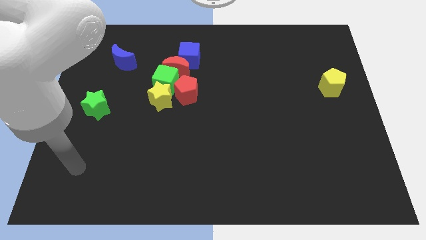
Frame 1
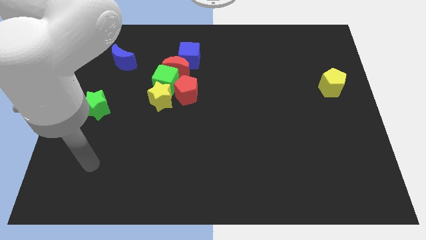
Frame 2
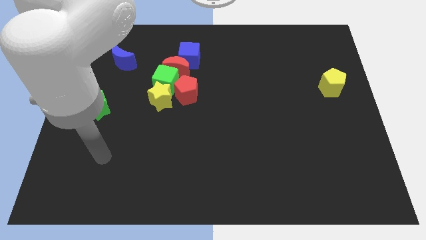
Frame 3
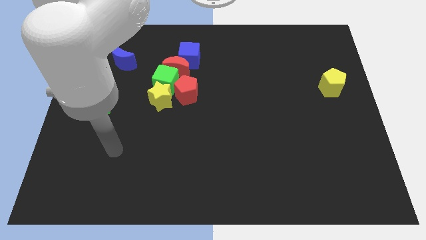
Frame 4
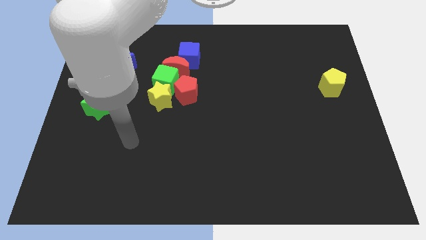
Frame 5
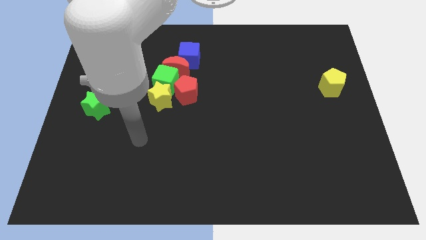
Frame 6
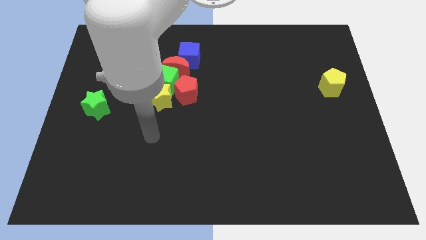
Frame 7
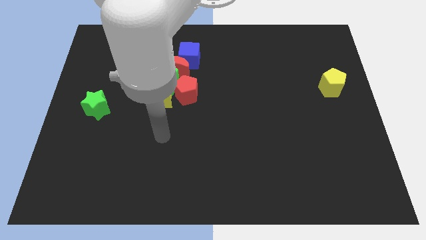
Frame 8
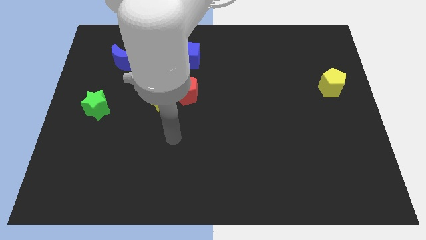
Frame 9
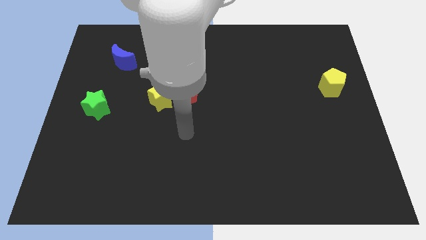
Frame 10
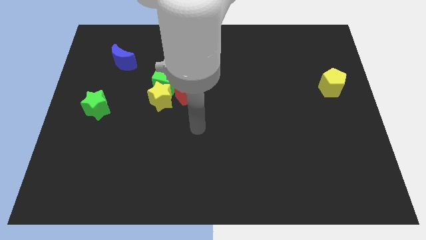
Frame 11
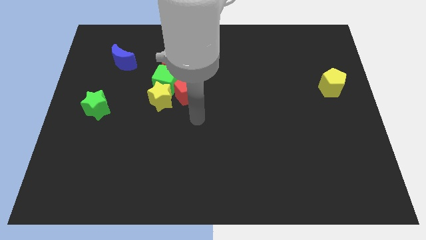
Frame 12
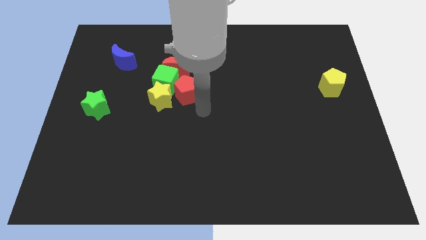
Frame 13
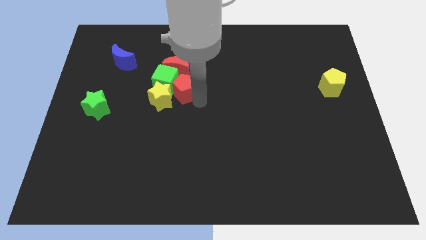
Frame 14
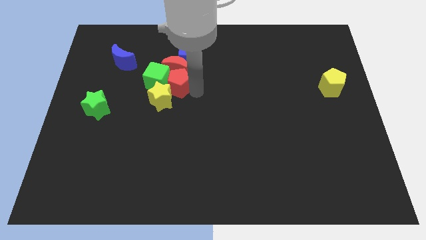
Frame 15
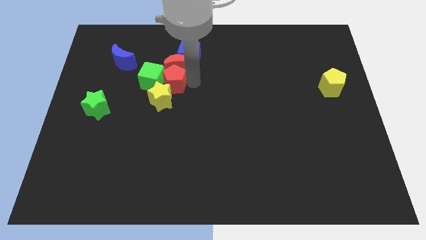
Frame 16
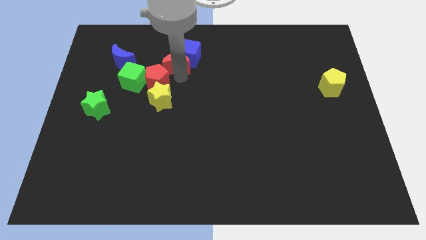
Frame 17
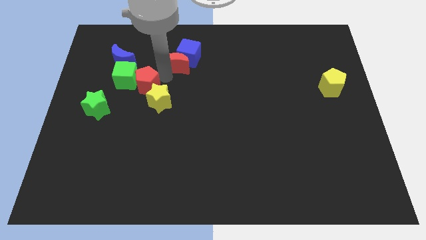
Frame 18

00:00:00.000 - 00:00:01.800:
separate the green cube from the clump

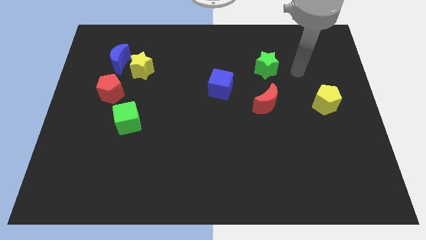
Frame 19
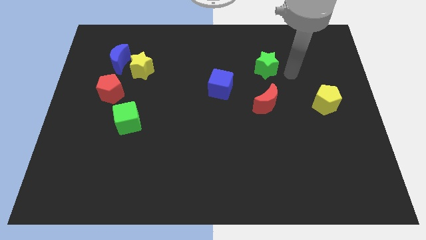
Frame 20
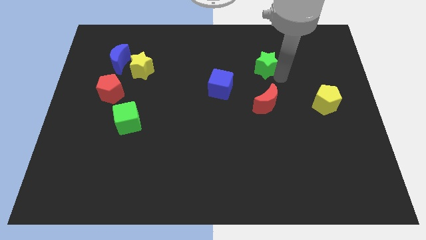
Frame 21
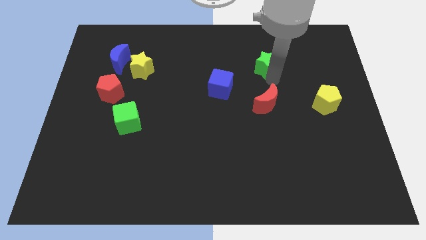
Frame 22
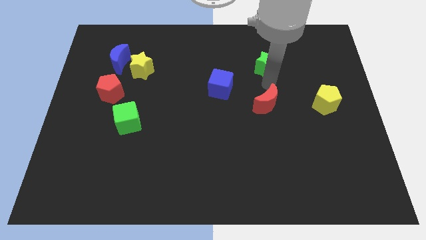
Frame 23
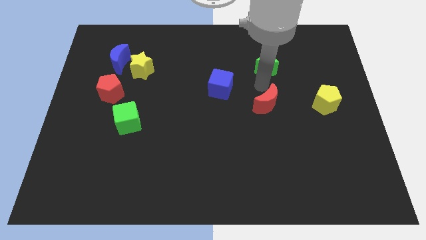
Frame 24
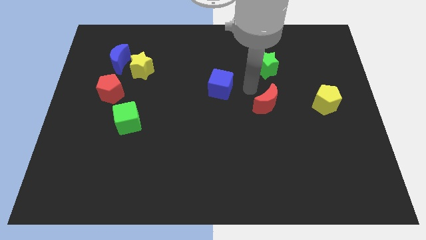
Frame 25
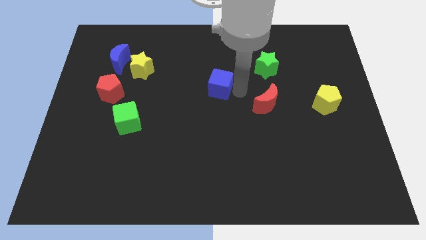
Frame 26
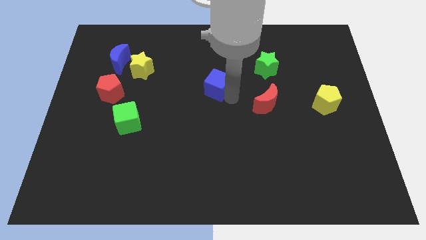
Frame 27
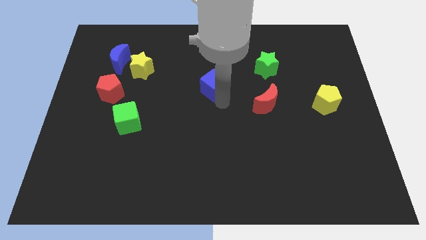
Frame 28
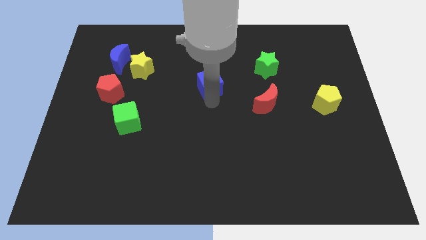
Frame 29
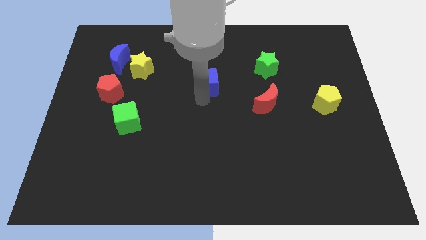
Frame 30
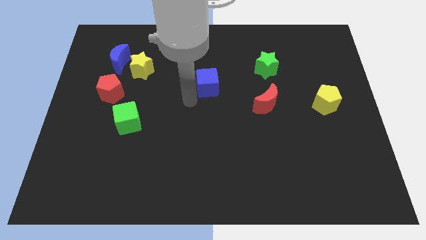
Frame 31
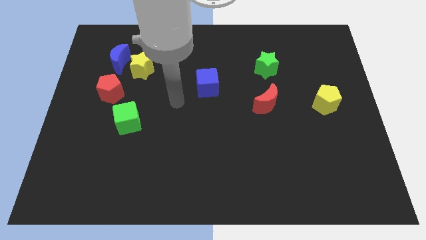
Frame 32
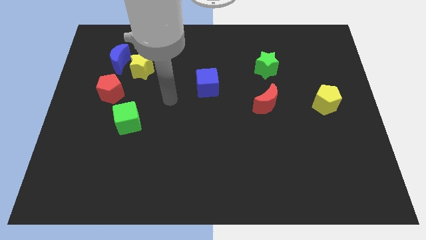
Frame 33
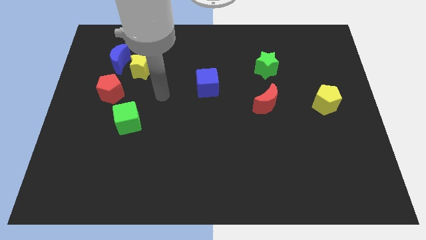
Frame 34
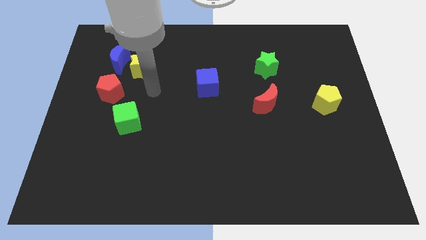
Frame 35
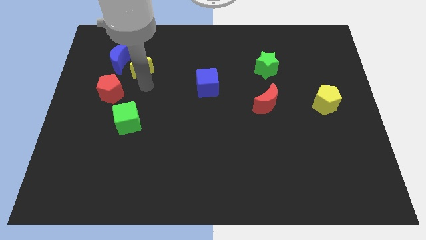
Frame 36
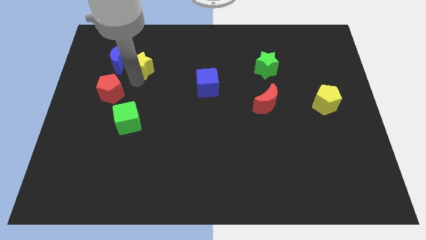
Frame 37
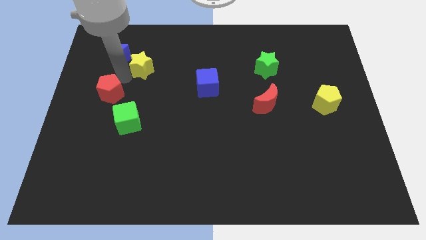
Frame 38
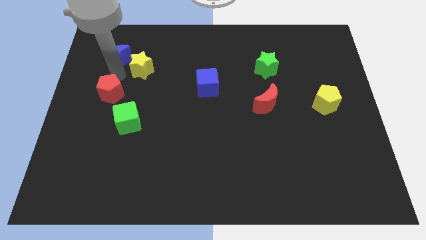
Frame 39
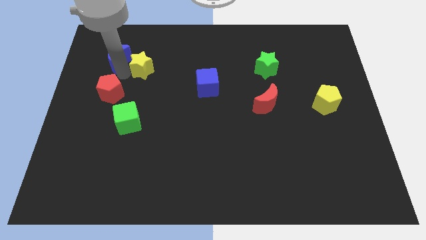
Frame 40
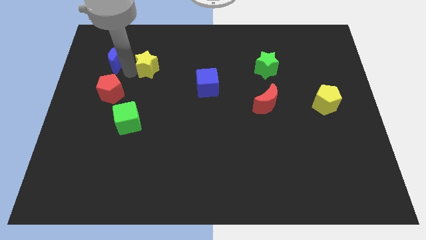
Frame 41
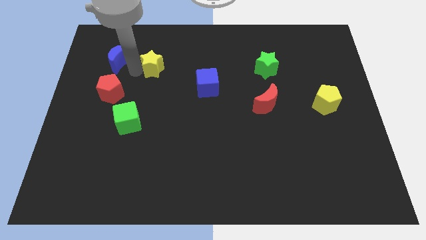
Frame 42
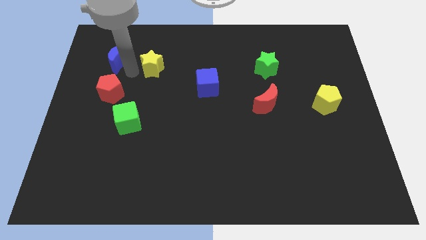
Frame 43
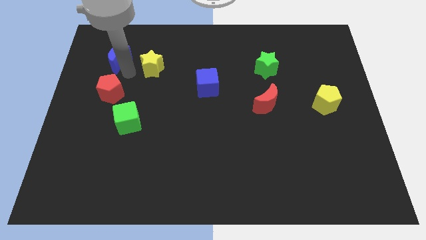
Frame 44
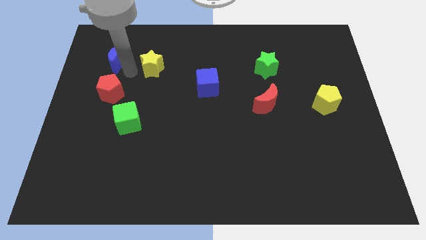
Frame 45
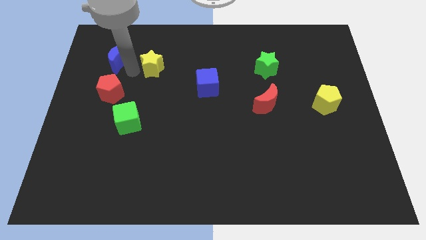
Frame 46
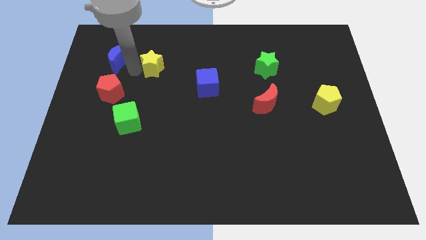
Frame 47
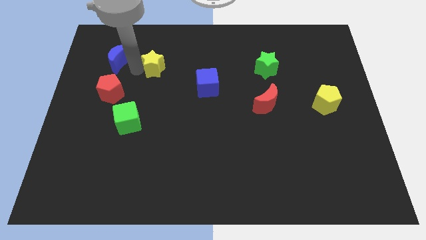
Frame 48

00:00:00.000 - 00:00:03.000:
pull the yellow star apart from the blue moon and red pentagon

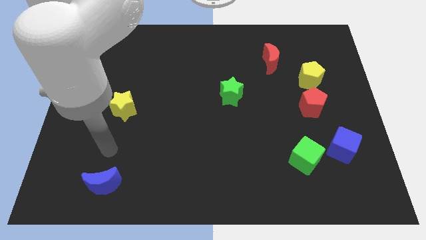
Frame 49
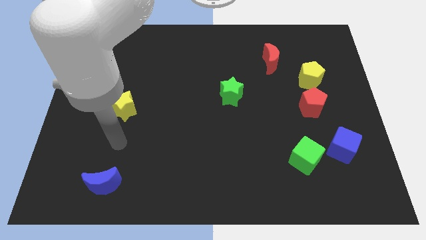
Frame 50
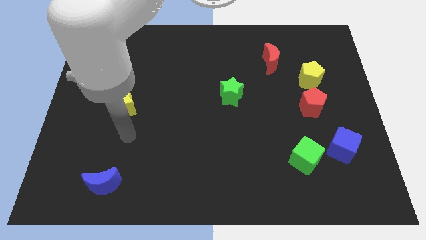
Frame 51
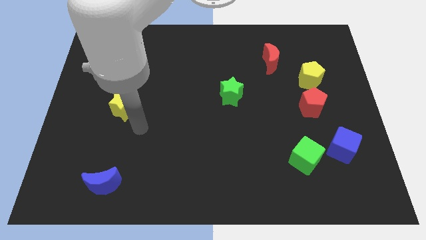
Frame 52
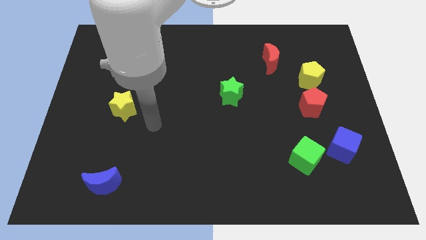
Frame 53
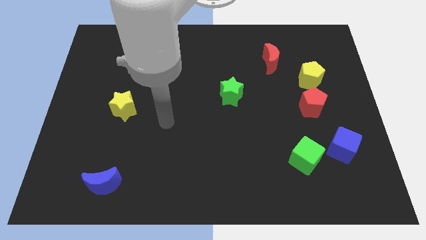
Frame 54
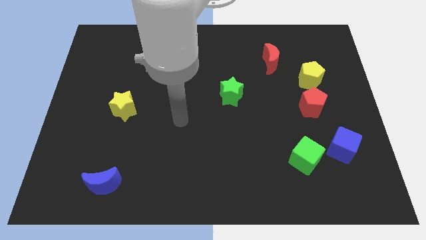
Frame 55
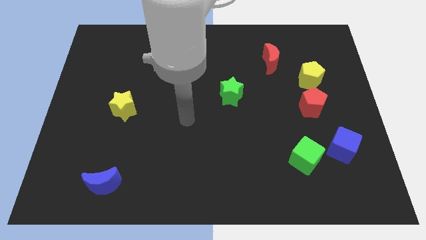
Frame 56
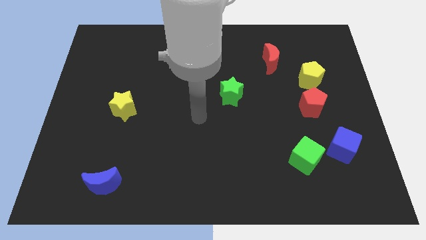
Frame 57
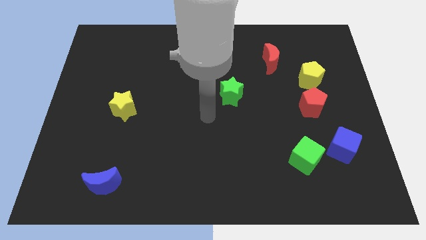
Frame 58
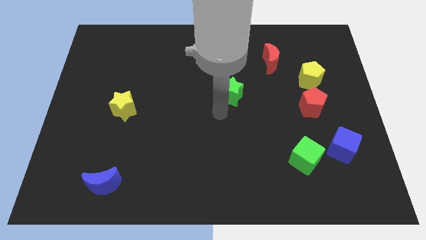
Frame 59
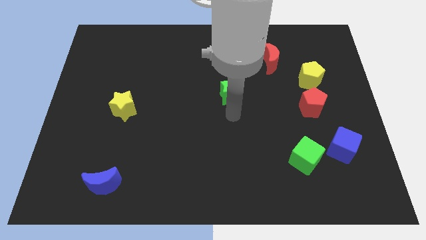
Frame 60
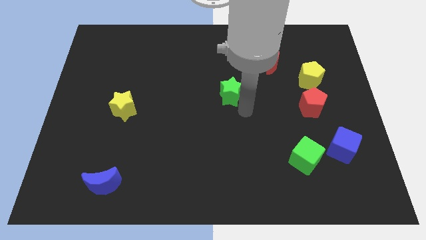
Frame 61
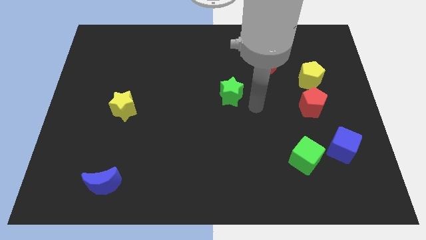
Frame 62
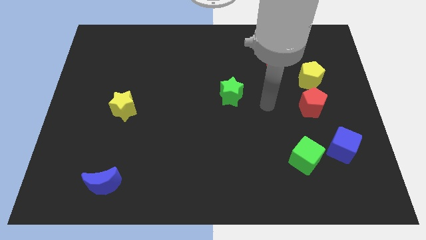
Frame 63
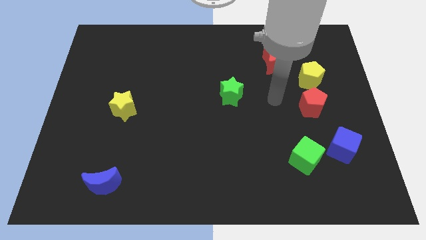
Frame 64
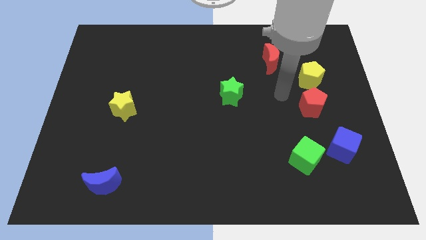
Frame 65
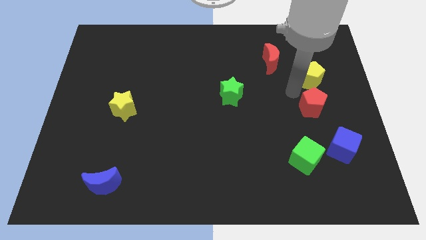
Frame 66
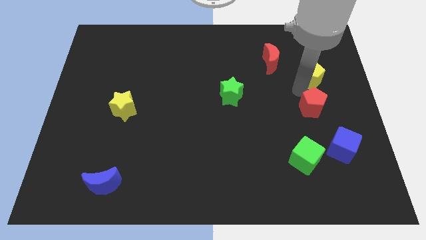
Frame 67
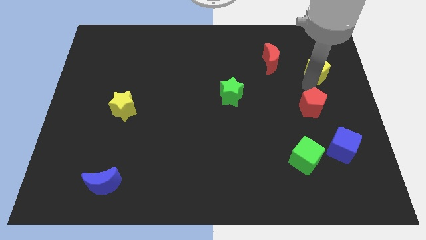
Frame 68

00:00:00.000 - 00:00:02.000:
move the red pentagon away from the yellow pentagon

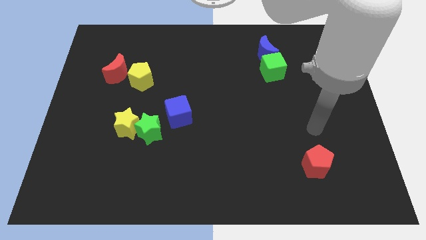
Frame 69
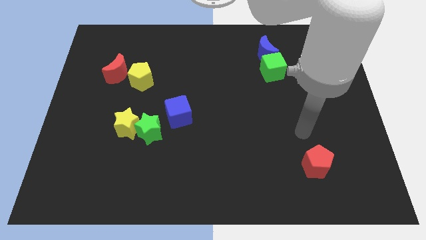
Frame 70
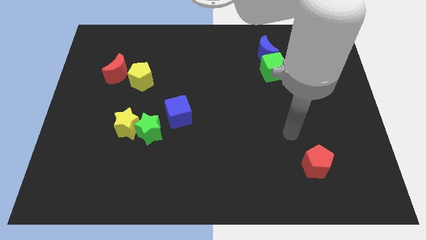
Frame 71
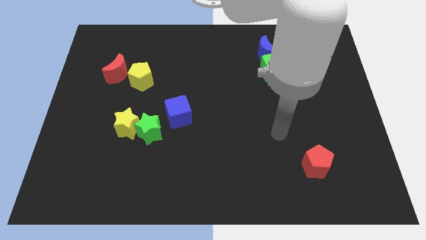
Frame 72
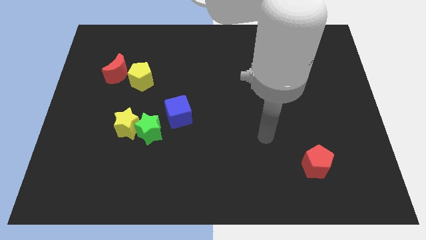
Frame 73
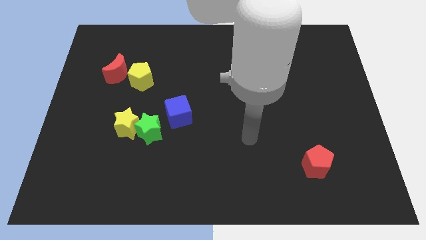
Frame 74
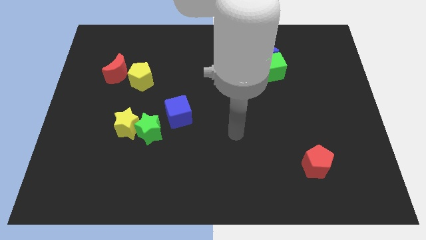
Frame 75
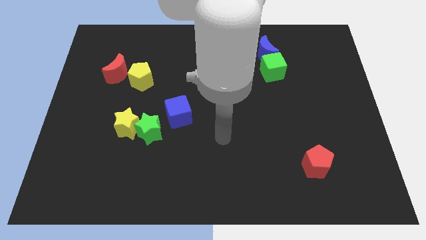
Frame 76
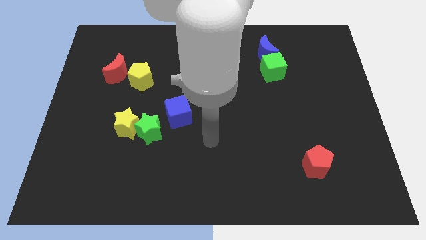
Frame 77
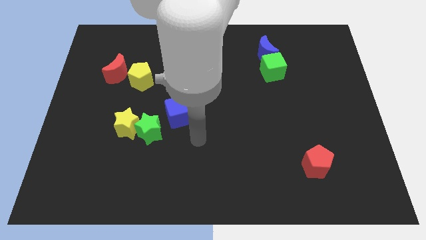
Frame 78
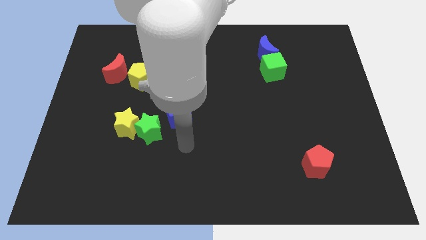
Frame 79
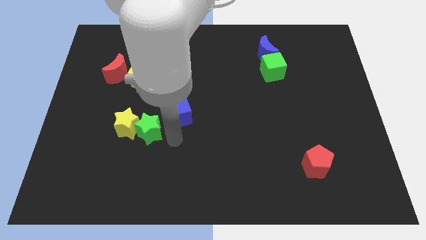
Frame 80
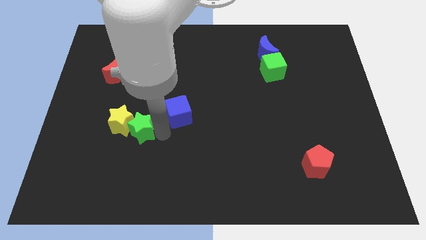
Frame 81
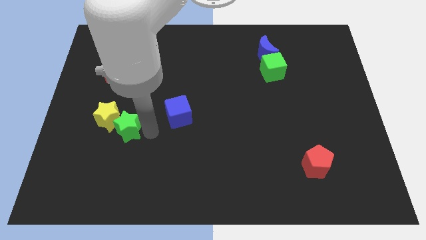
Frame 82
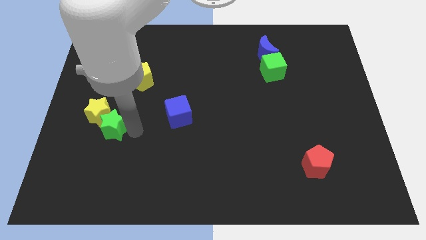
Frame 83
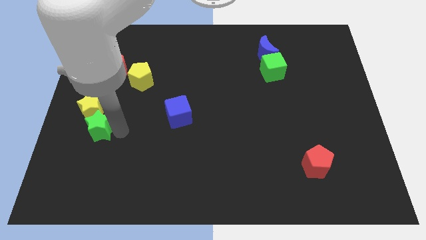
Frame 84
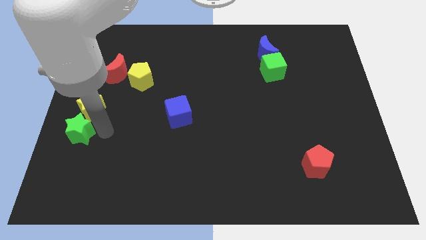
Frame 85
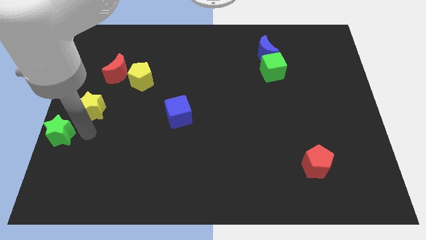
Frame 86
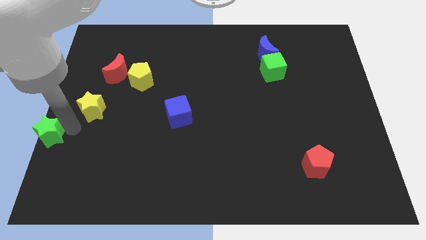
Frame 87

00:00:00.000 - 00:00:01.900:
pull the yellow star apart from the green star

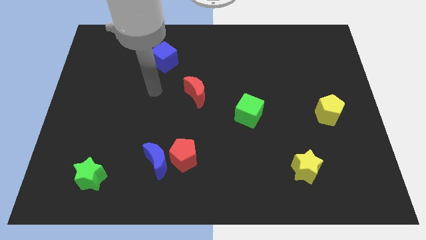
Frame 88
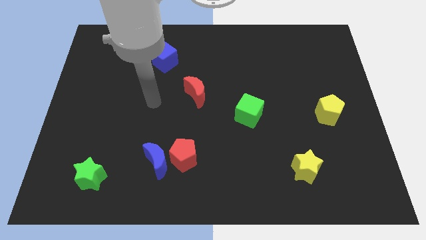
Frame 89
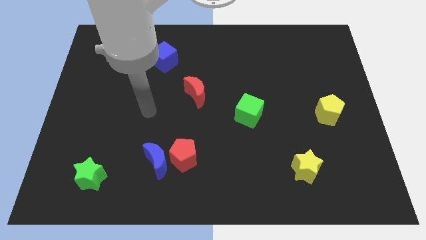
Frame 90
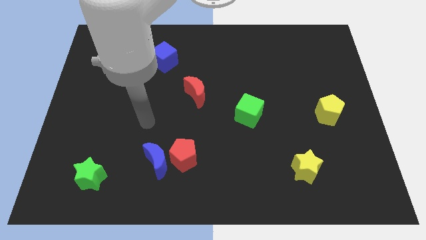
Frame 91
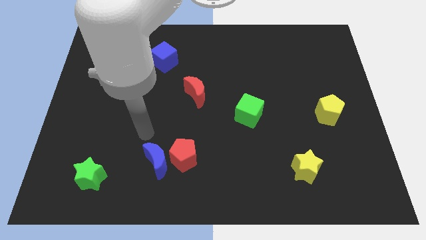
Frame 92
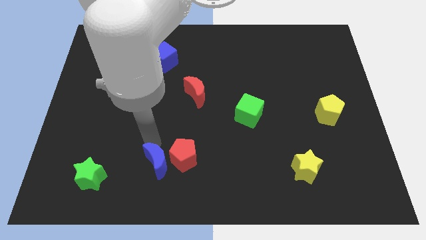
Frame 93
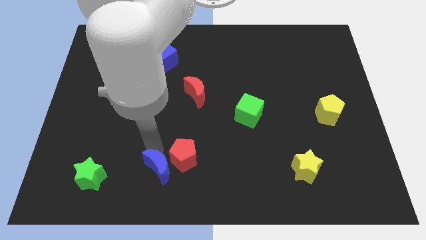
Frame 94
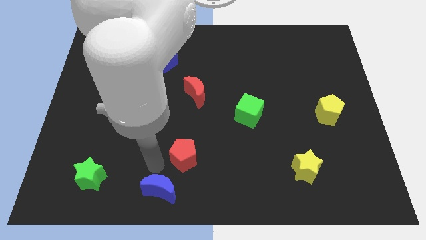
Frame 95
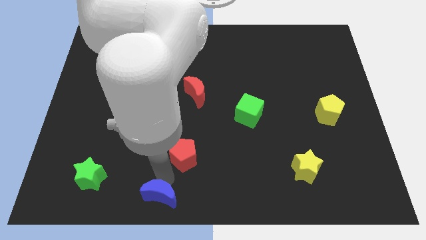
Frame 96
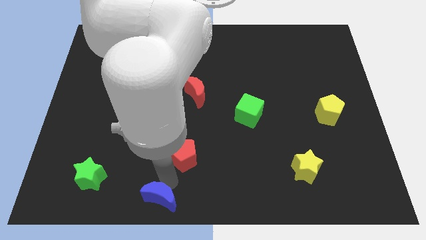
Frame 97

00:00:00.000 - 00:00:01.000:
move the red pentagon away from the blue moon
